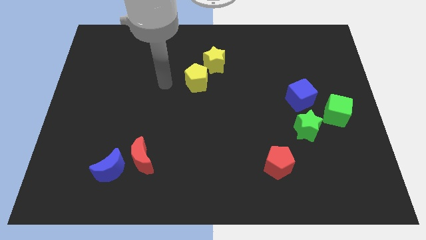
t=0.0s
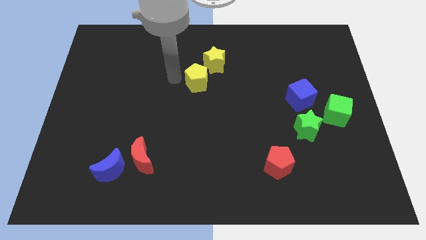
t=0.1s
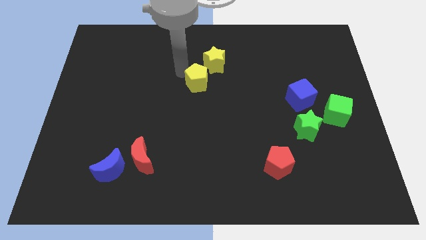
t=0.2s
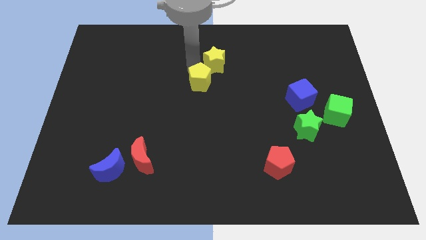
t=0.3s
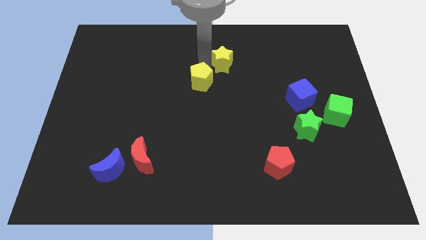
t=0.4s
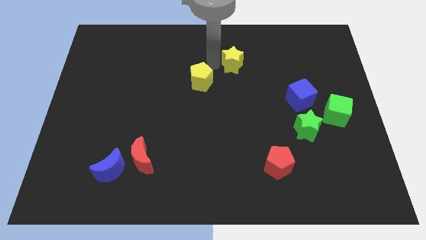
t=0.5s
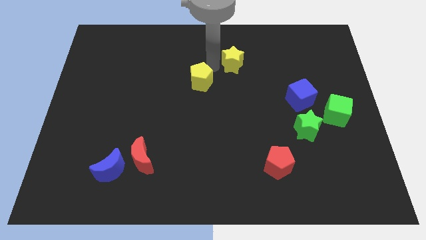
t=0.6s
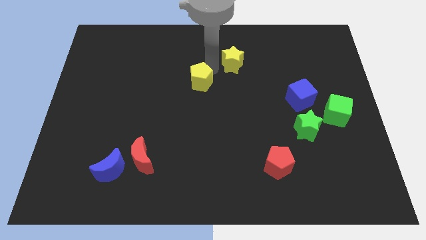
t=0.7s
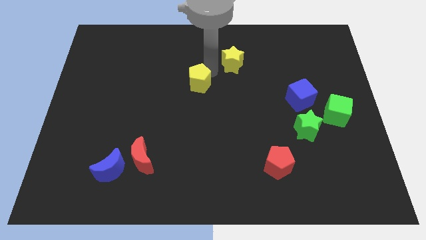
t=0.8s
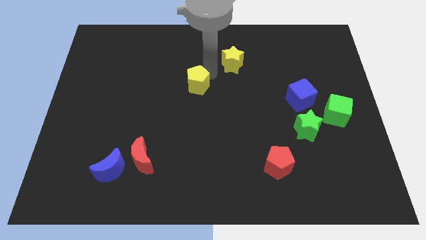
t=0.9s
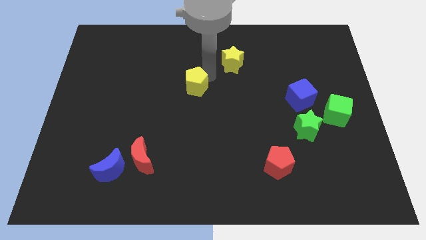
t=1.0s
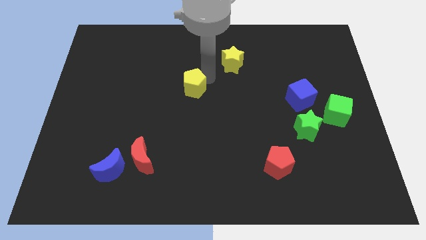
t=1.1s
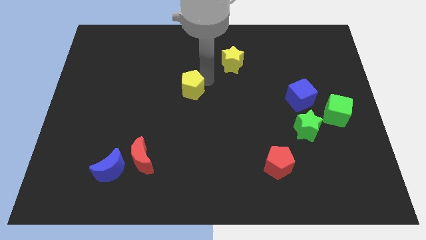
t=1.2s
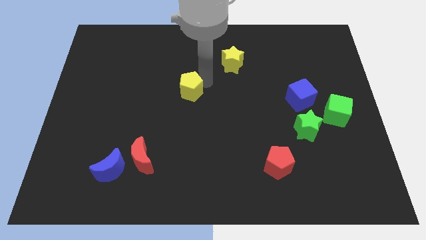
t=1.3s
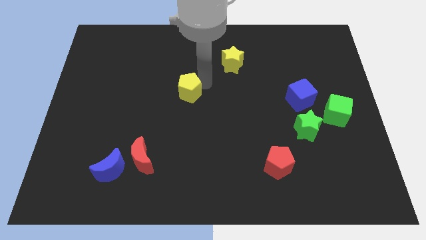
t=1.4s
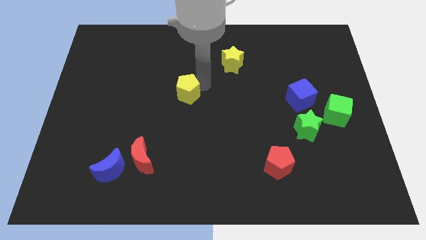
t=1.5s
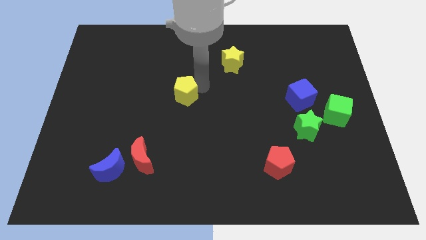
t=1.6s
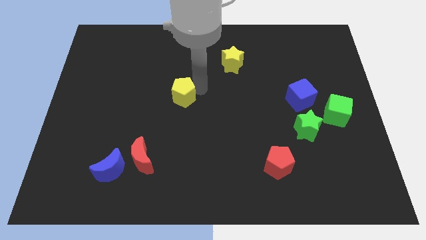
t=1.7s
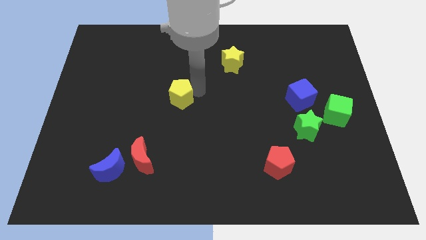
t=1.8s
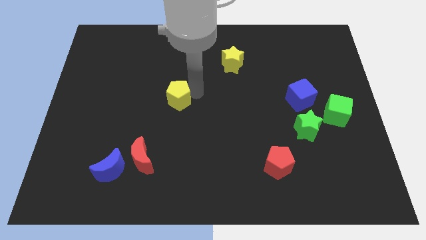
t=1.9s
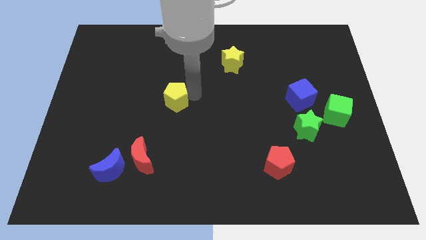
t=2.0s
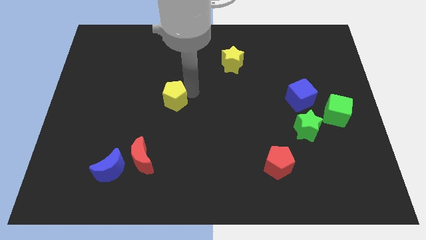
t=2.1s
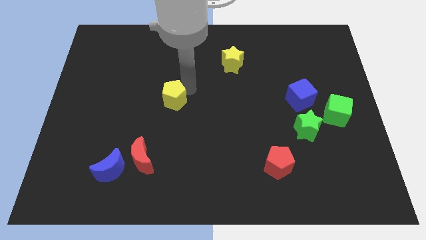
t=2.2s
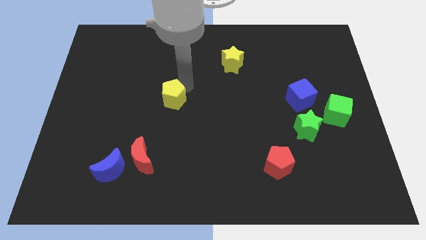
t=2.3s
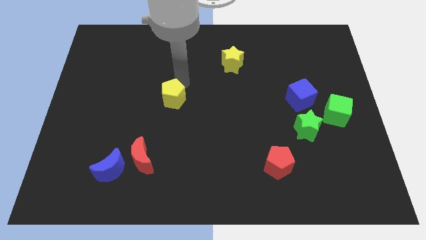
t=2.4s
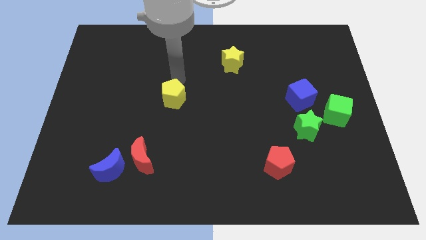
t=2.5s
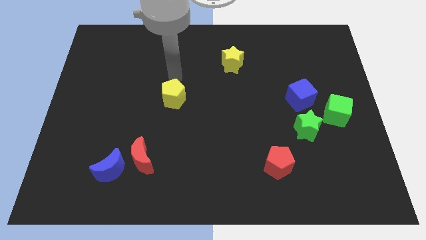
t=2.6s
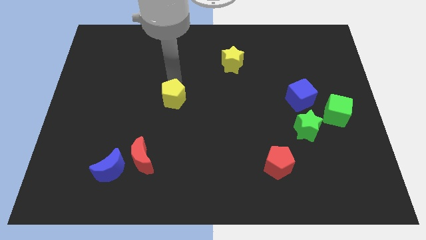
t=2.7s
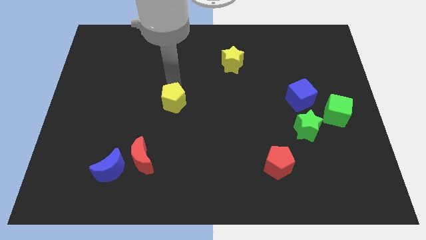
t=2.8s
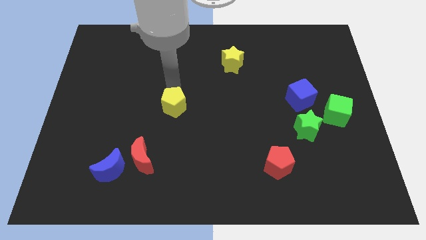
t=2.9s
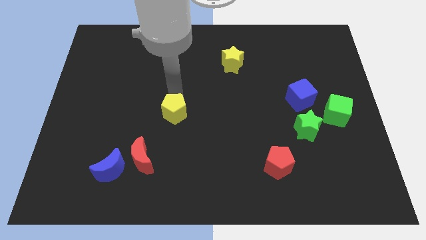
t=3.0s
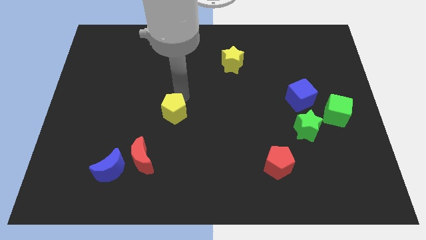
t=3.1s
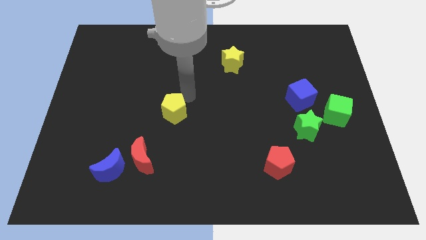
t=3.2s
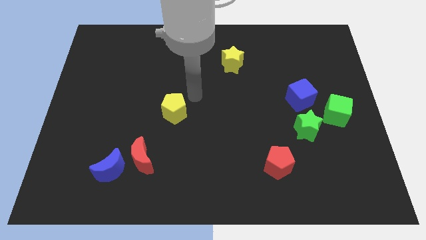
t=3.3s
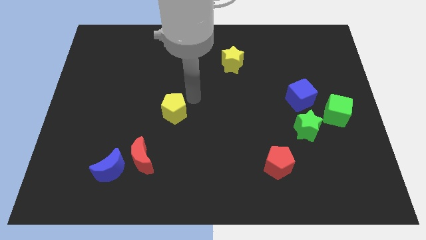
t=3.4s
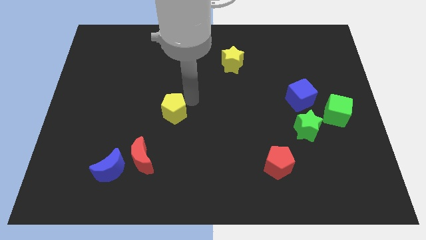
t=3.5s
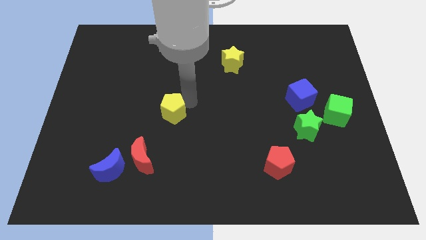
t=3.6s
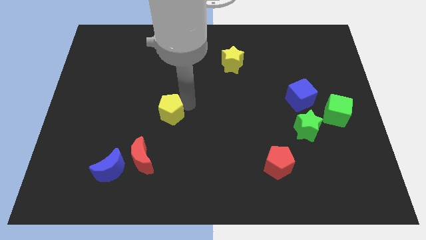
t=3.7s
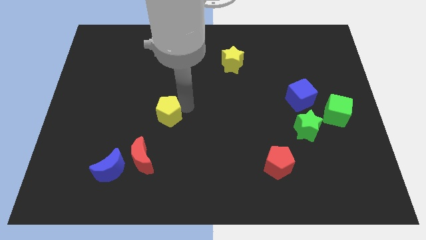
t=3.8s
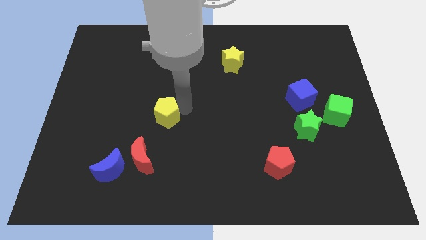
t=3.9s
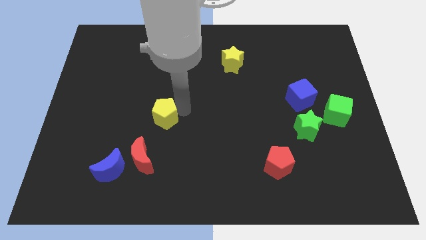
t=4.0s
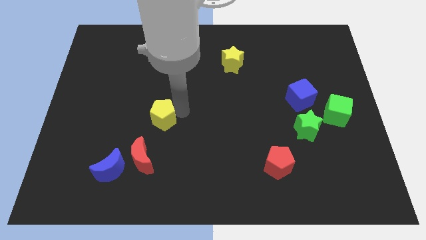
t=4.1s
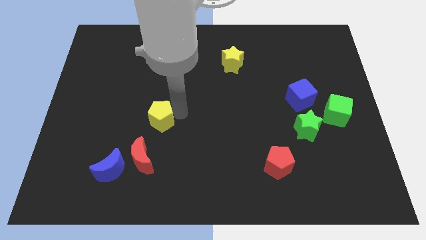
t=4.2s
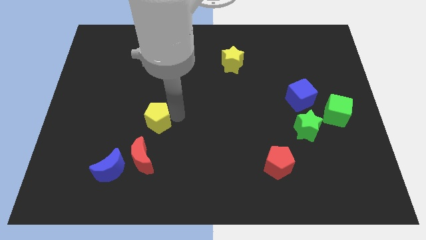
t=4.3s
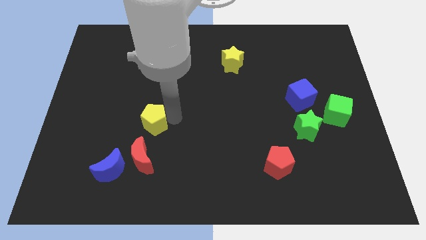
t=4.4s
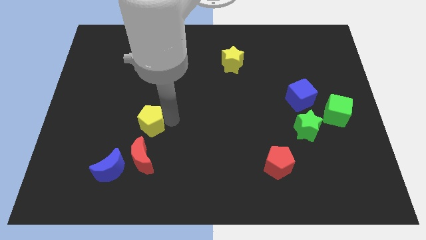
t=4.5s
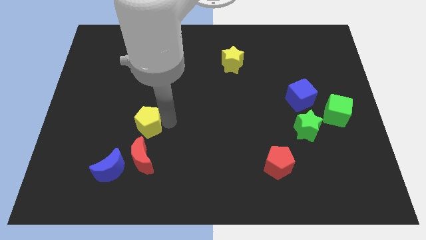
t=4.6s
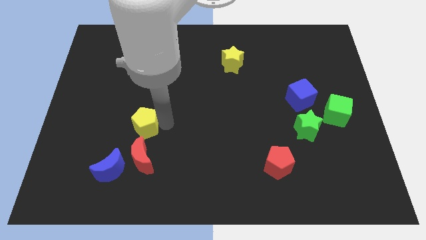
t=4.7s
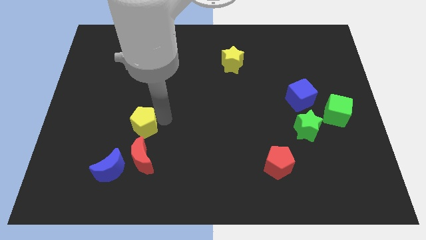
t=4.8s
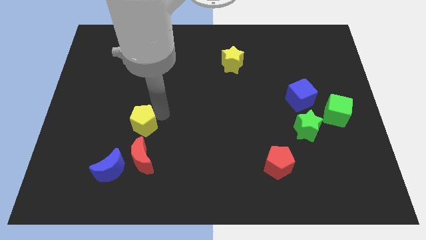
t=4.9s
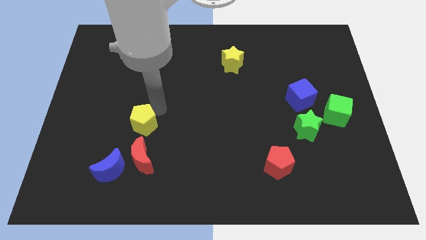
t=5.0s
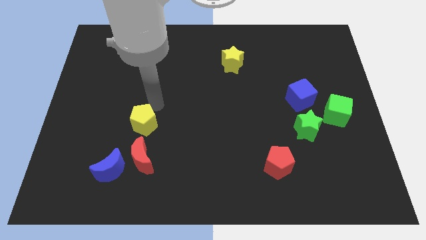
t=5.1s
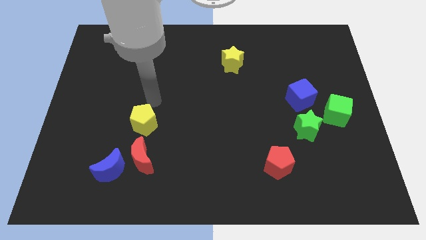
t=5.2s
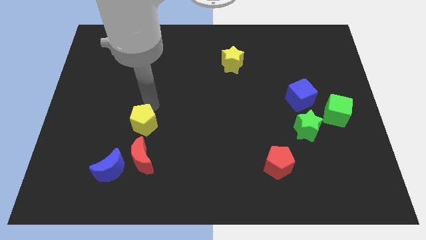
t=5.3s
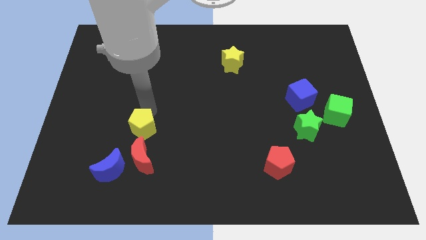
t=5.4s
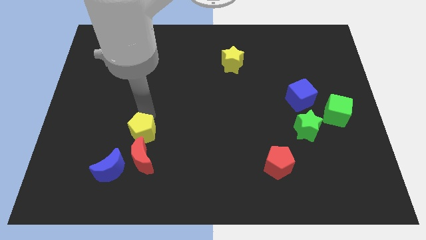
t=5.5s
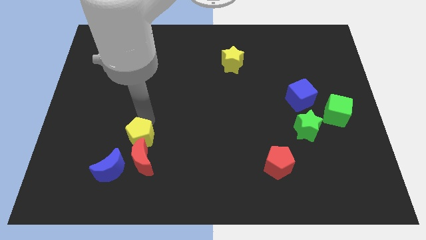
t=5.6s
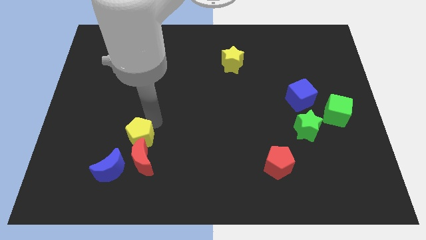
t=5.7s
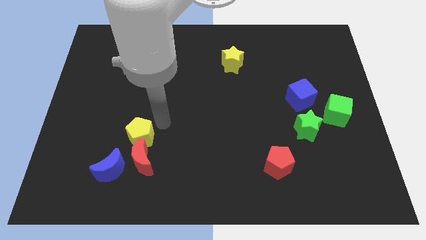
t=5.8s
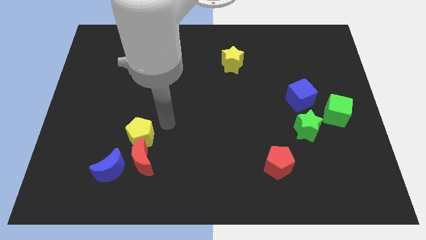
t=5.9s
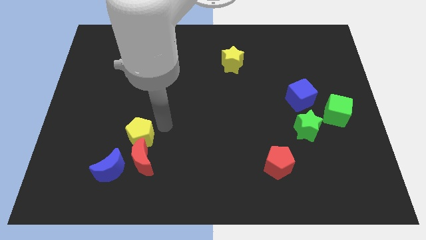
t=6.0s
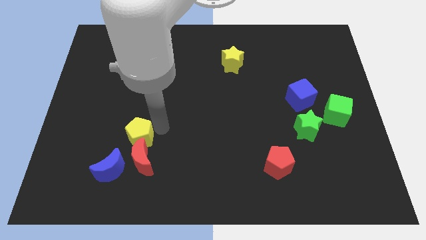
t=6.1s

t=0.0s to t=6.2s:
push the yellow pentagon diagonally down and to the left

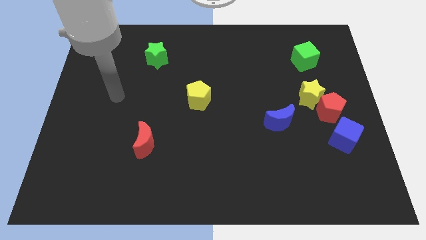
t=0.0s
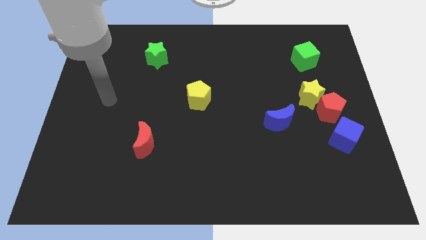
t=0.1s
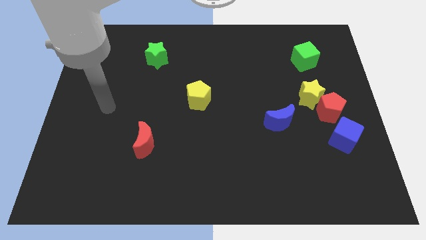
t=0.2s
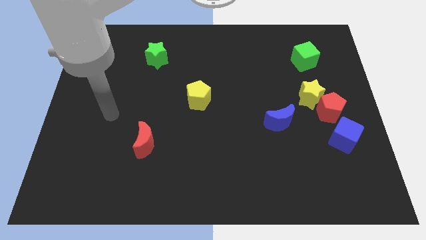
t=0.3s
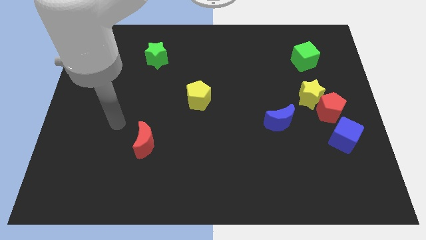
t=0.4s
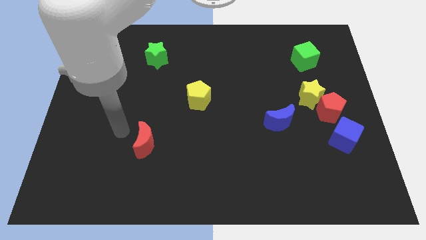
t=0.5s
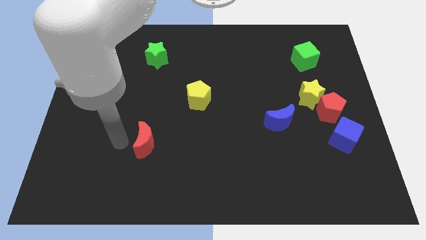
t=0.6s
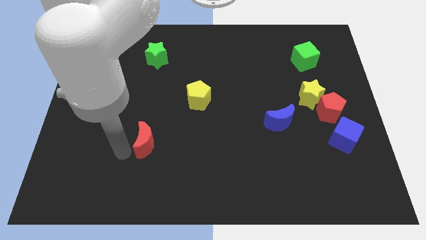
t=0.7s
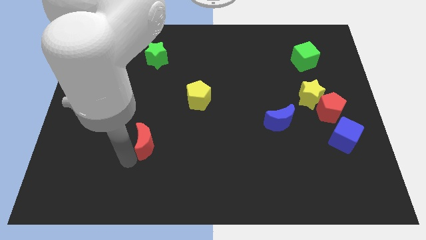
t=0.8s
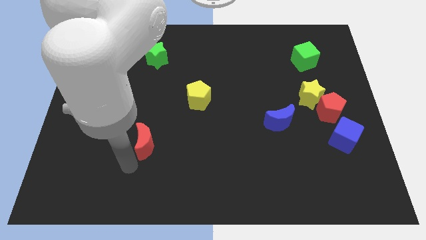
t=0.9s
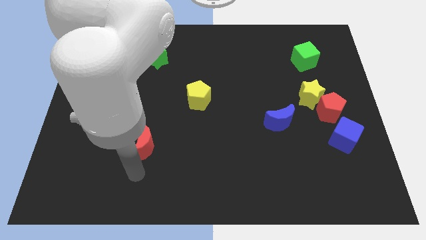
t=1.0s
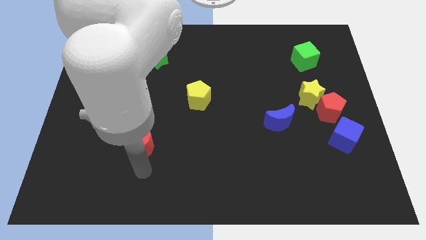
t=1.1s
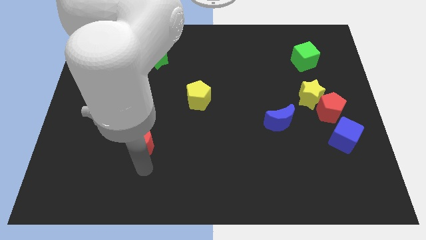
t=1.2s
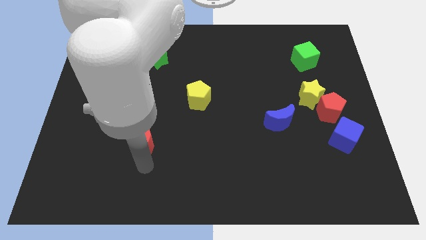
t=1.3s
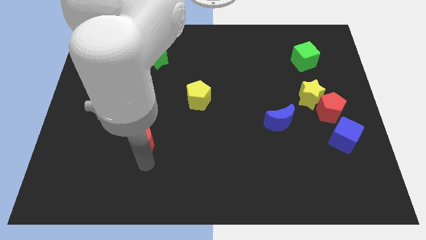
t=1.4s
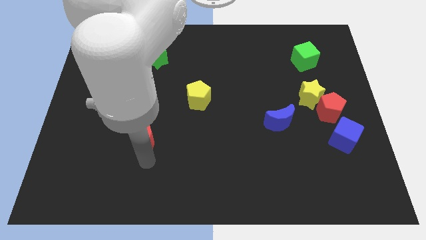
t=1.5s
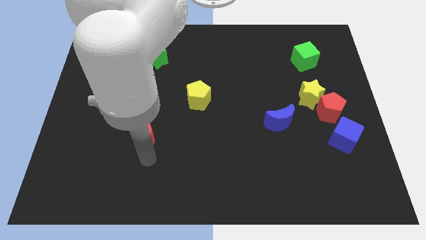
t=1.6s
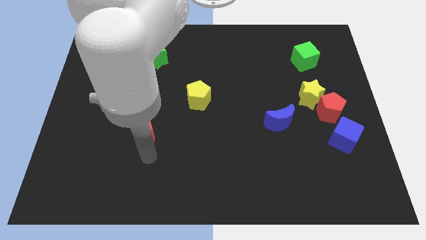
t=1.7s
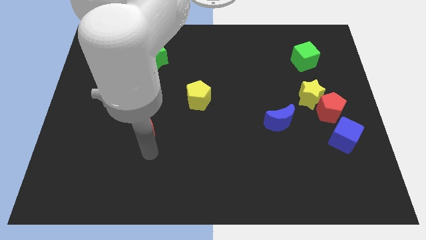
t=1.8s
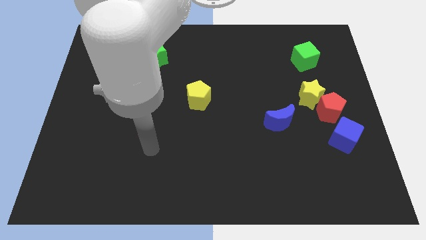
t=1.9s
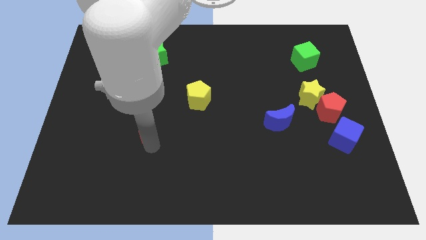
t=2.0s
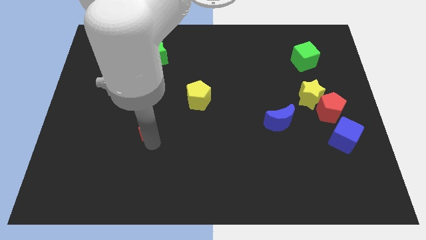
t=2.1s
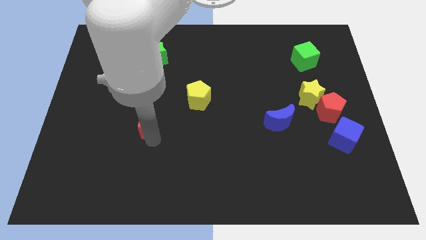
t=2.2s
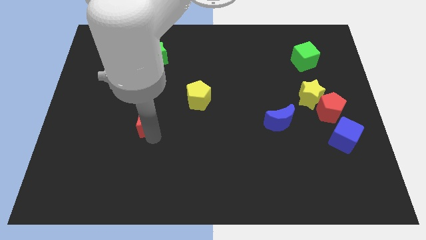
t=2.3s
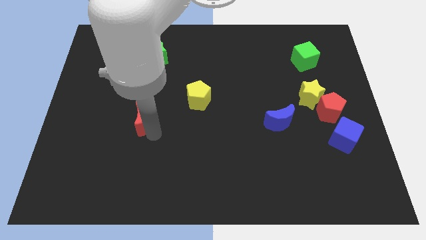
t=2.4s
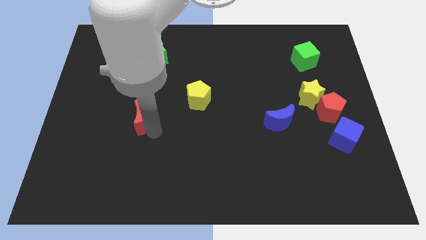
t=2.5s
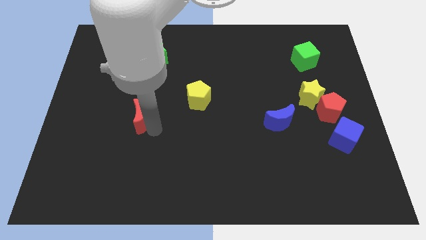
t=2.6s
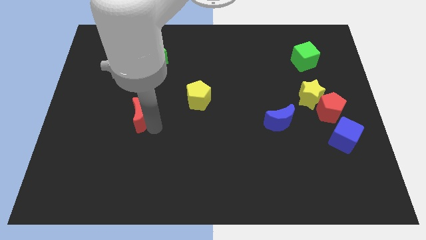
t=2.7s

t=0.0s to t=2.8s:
move the red moon somewhat up
